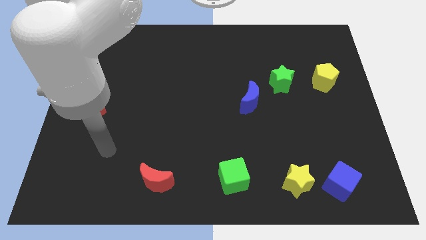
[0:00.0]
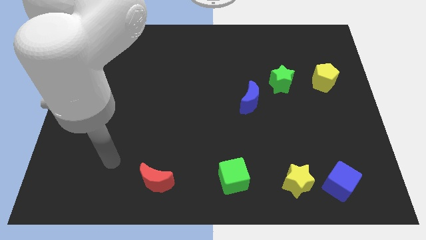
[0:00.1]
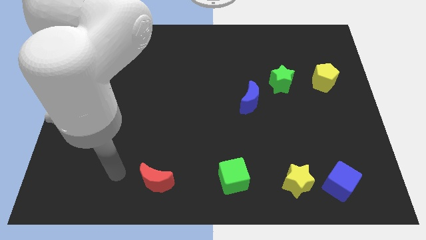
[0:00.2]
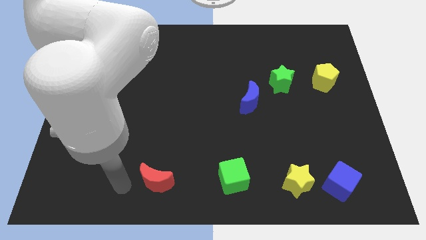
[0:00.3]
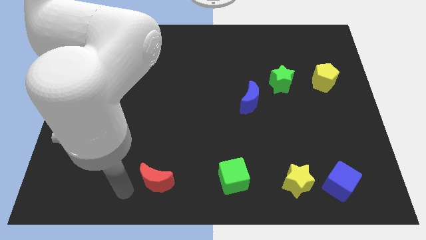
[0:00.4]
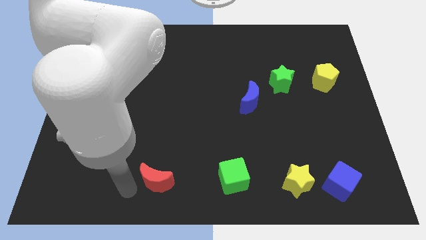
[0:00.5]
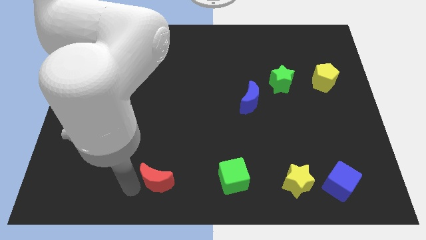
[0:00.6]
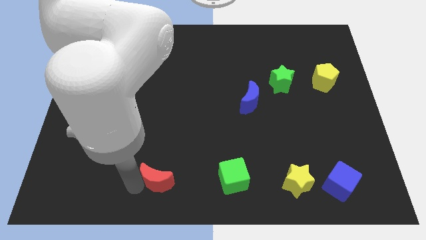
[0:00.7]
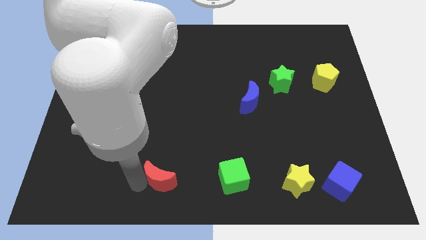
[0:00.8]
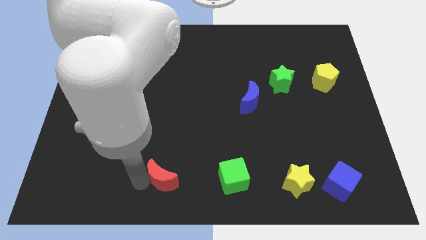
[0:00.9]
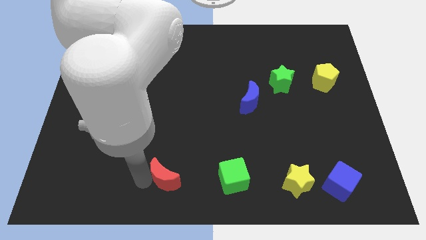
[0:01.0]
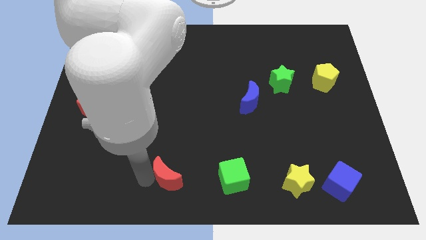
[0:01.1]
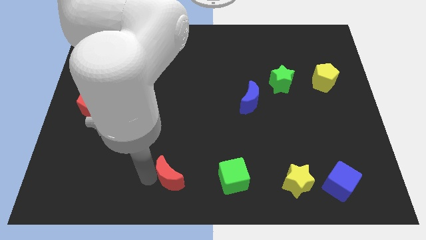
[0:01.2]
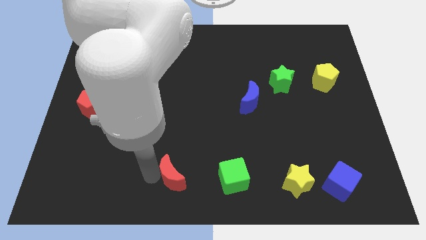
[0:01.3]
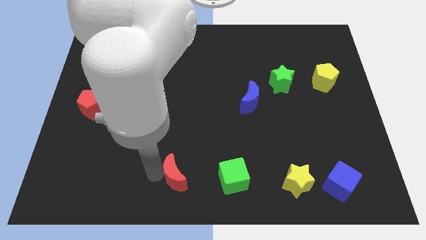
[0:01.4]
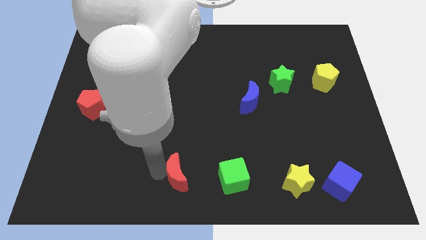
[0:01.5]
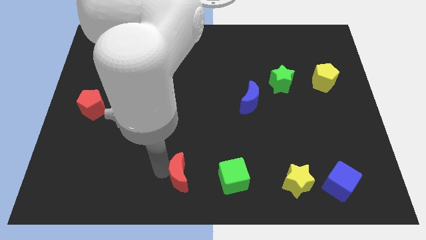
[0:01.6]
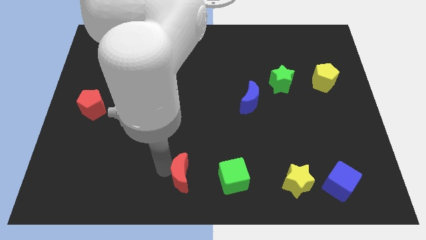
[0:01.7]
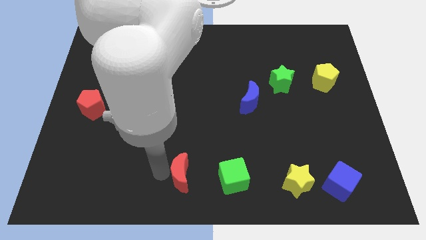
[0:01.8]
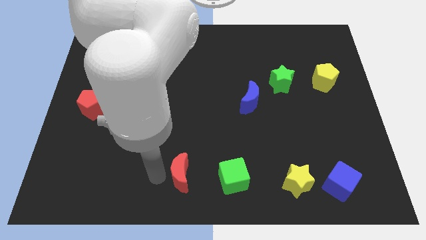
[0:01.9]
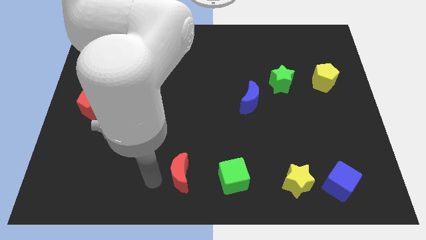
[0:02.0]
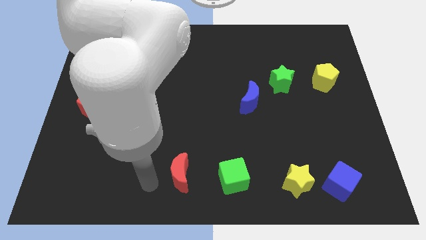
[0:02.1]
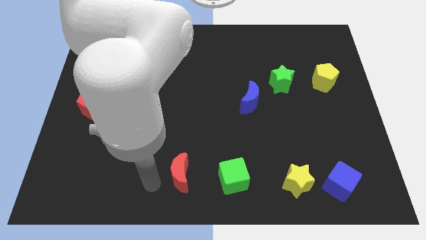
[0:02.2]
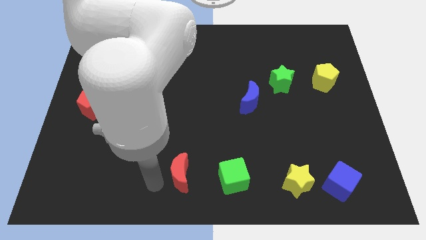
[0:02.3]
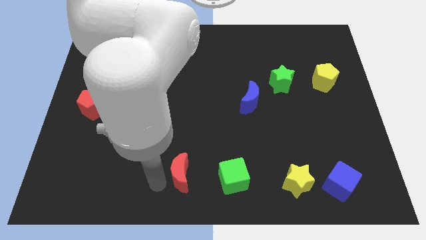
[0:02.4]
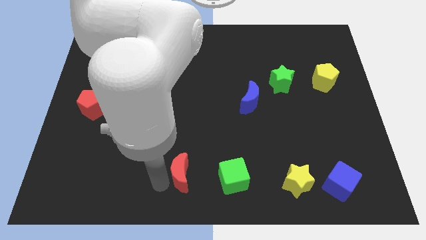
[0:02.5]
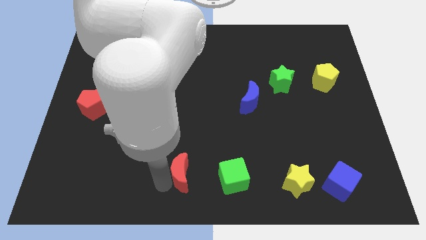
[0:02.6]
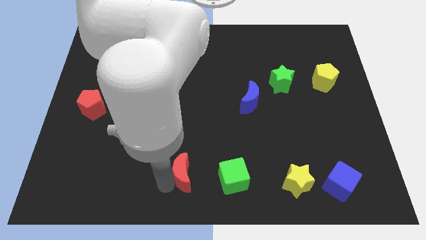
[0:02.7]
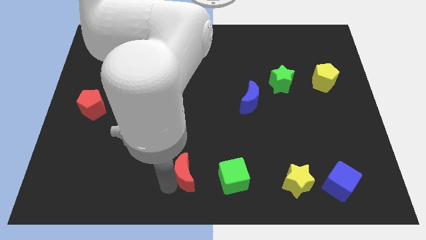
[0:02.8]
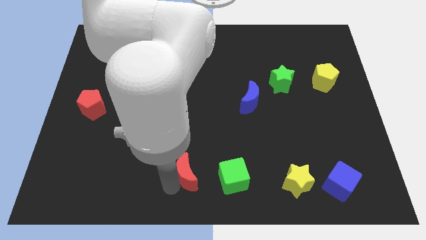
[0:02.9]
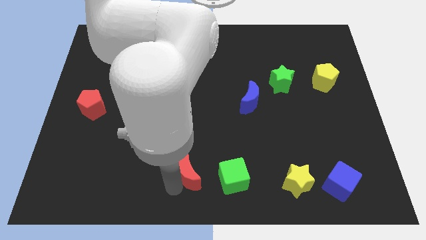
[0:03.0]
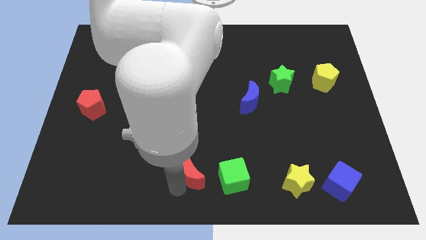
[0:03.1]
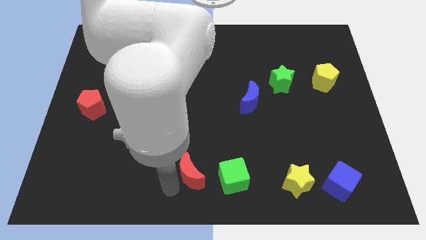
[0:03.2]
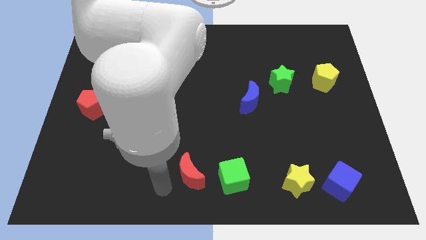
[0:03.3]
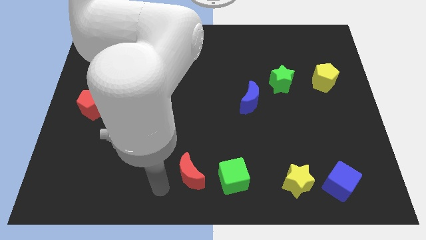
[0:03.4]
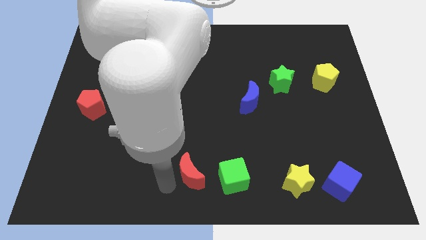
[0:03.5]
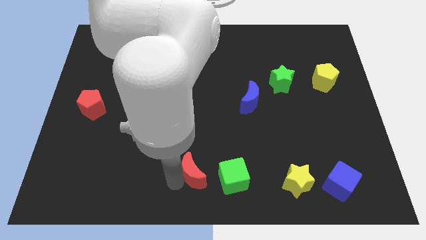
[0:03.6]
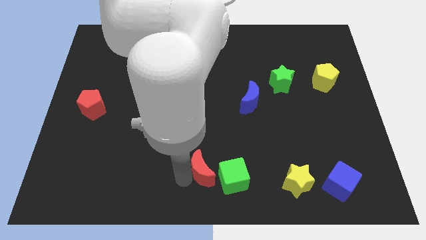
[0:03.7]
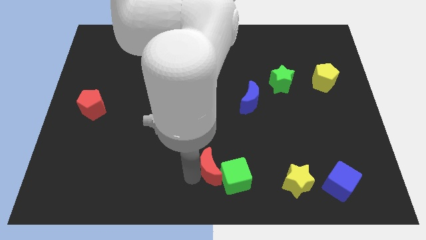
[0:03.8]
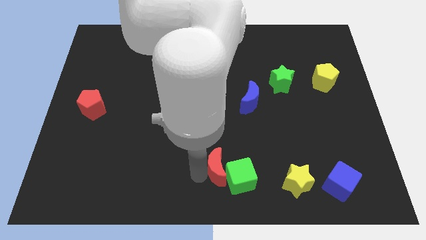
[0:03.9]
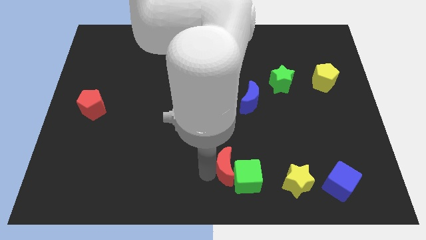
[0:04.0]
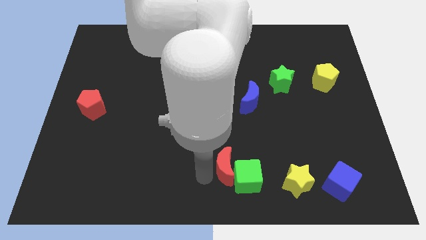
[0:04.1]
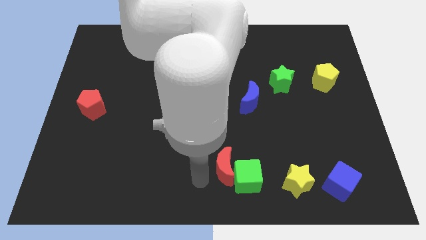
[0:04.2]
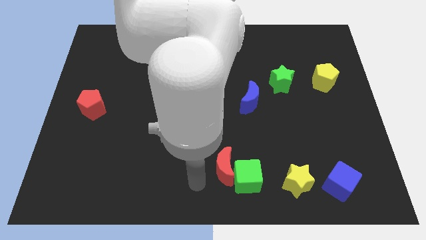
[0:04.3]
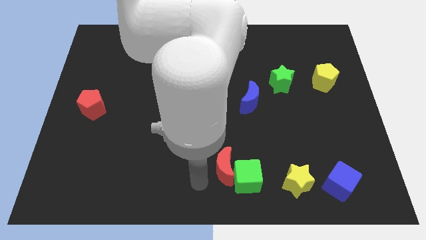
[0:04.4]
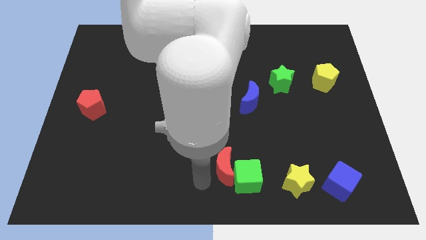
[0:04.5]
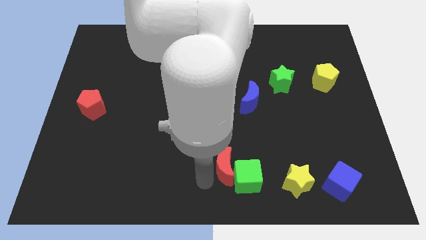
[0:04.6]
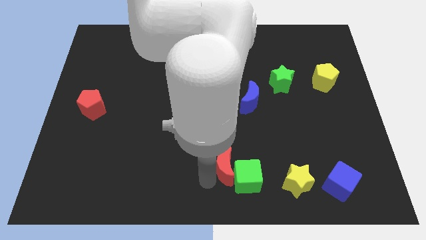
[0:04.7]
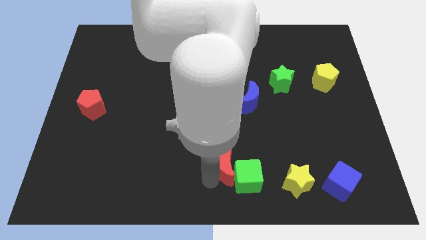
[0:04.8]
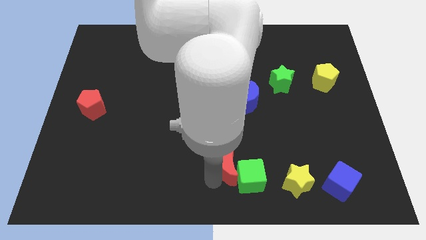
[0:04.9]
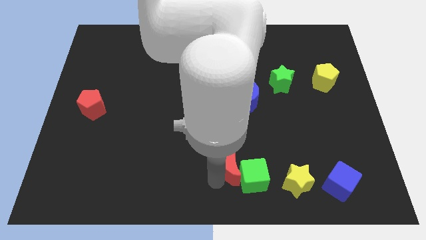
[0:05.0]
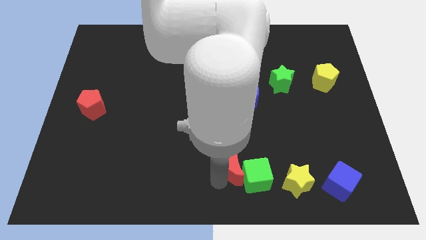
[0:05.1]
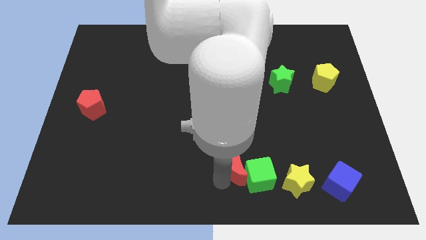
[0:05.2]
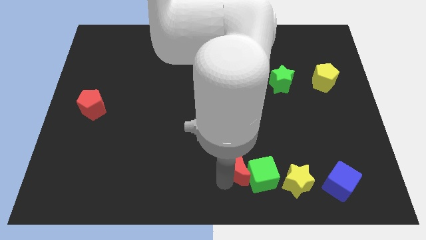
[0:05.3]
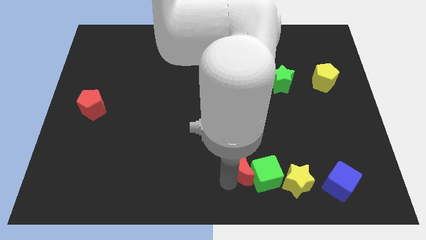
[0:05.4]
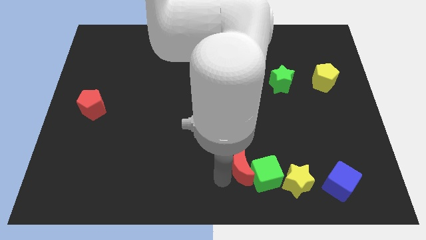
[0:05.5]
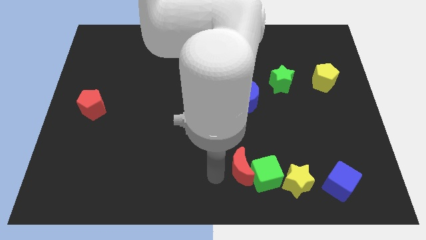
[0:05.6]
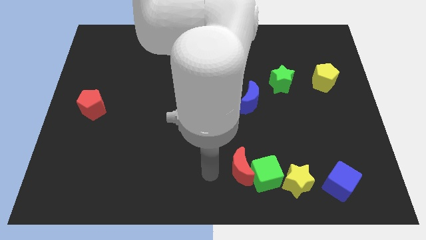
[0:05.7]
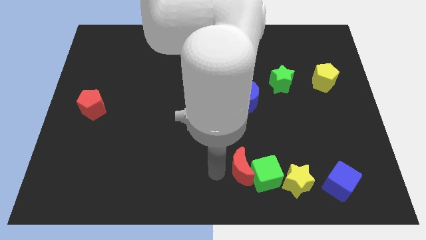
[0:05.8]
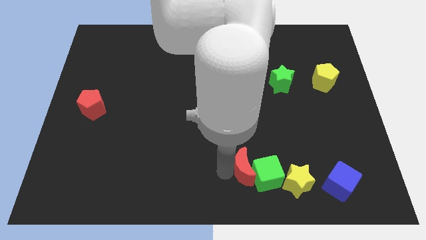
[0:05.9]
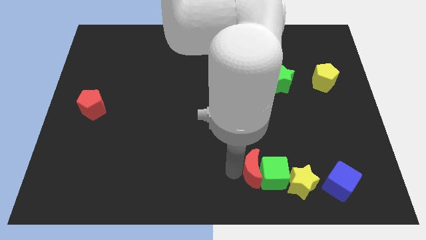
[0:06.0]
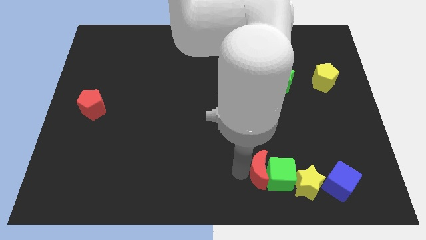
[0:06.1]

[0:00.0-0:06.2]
slide the red moon to the right

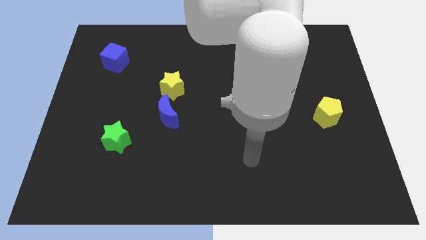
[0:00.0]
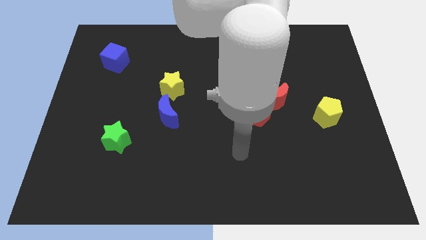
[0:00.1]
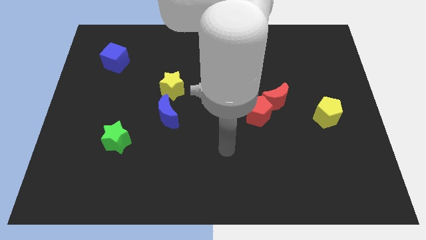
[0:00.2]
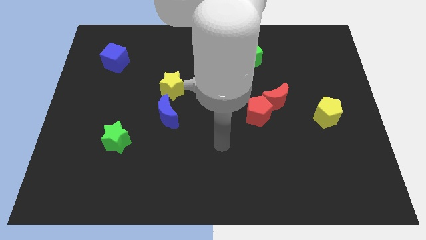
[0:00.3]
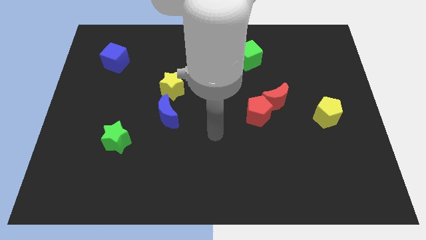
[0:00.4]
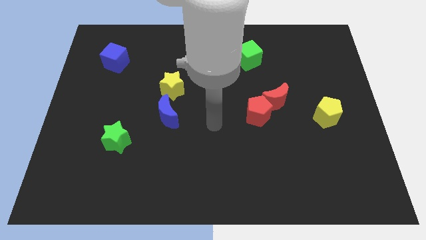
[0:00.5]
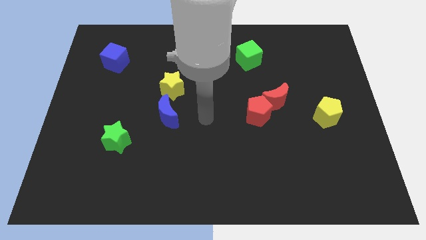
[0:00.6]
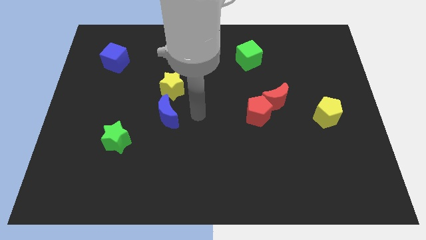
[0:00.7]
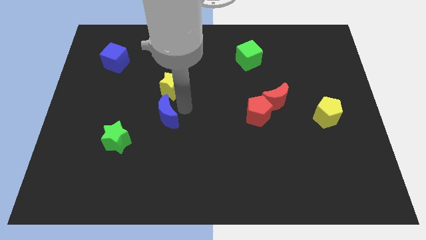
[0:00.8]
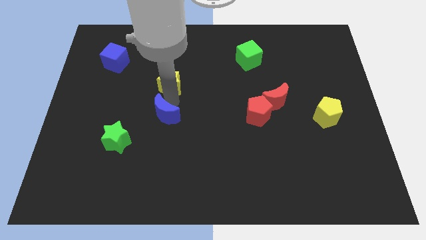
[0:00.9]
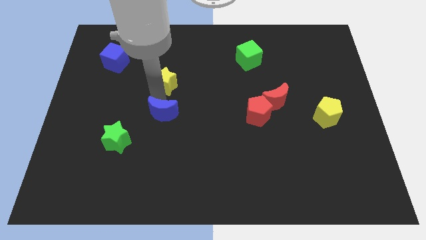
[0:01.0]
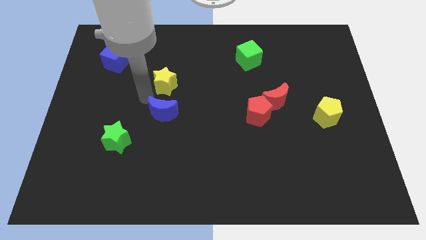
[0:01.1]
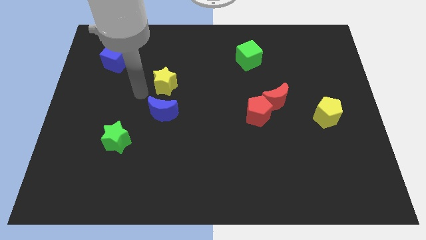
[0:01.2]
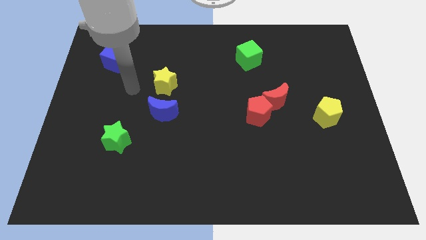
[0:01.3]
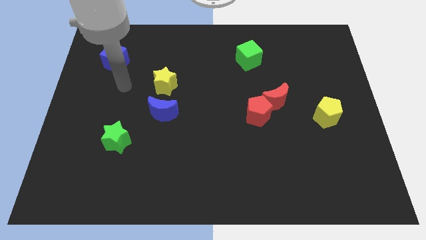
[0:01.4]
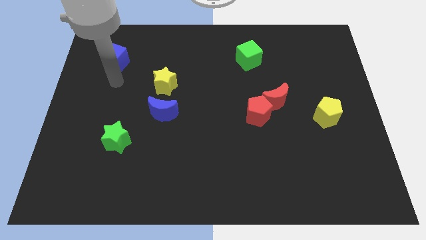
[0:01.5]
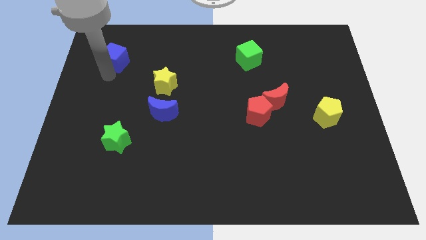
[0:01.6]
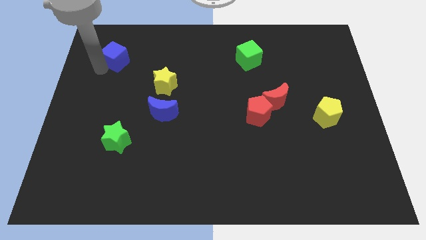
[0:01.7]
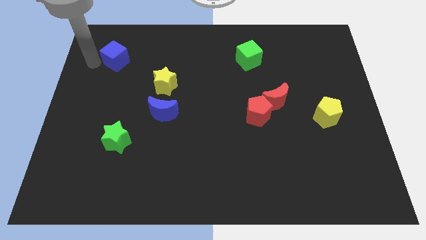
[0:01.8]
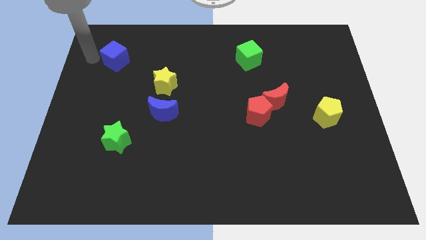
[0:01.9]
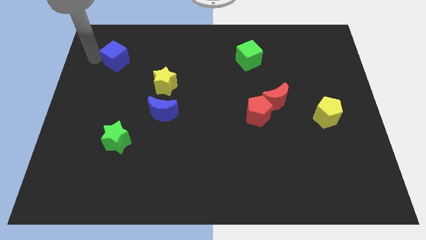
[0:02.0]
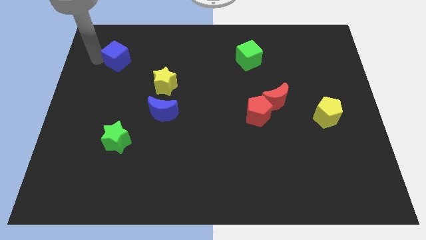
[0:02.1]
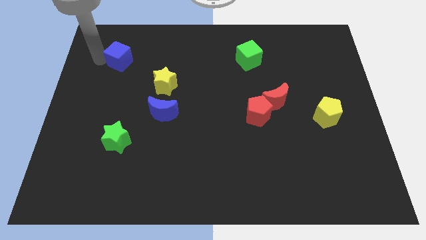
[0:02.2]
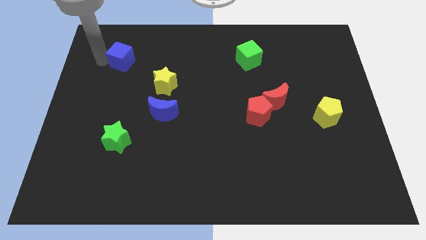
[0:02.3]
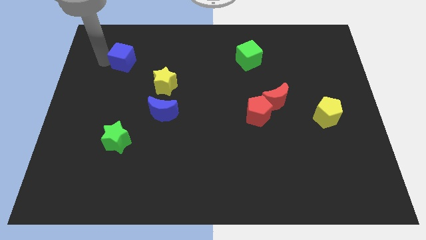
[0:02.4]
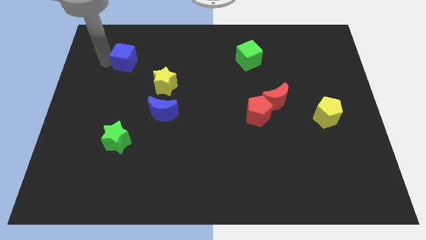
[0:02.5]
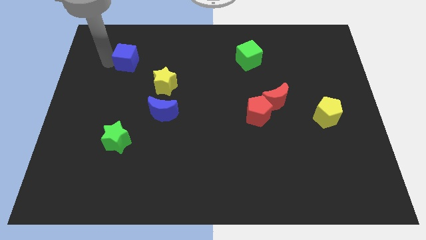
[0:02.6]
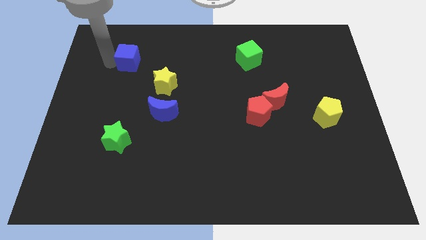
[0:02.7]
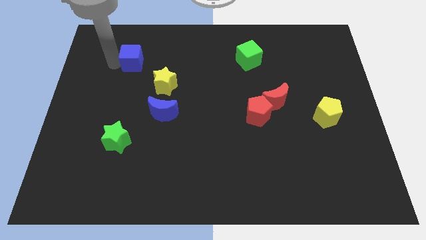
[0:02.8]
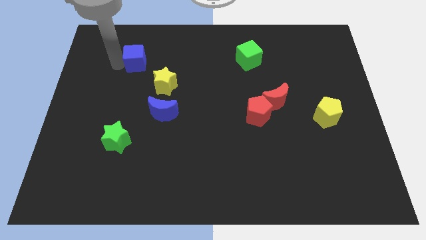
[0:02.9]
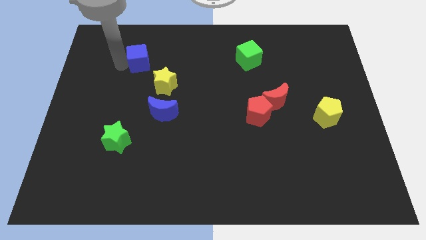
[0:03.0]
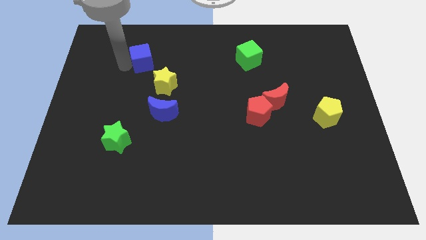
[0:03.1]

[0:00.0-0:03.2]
move the blue cube to the right a bit
